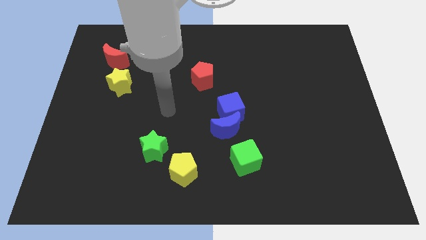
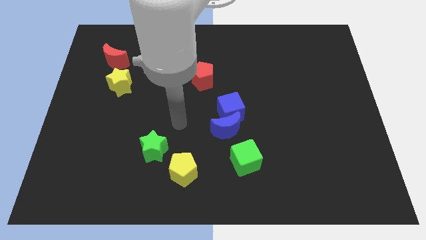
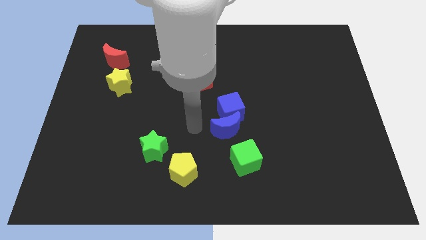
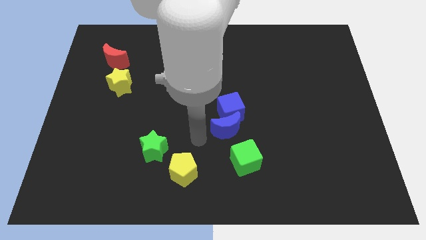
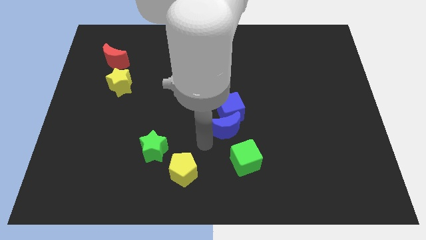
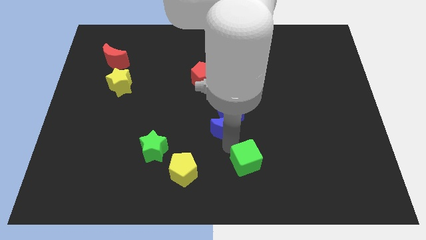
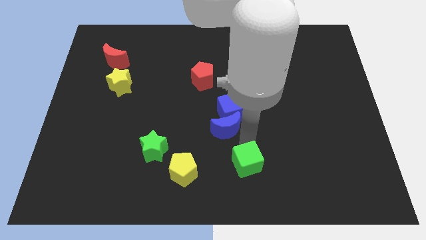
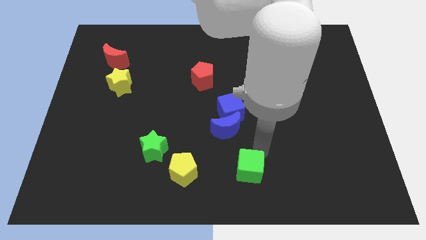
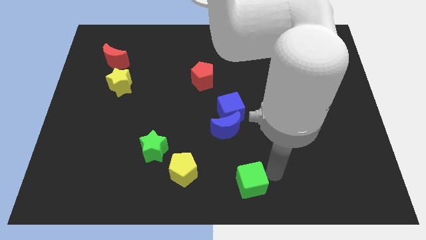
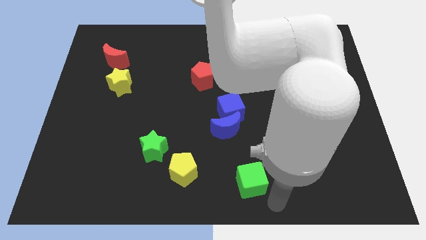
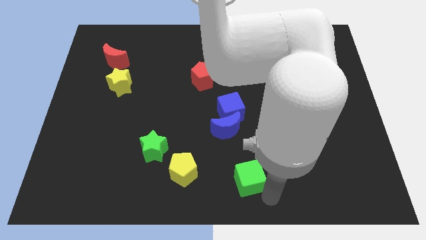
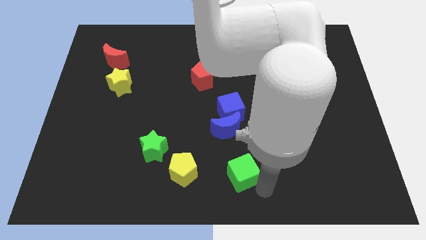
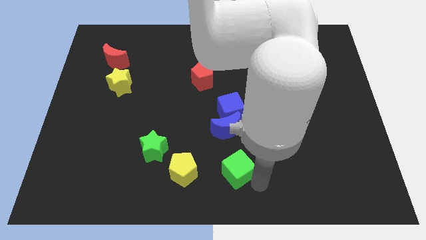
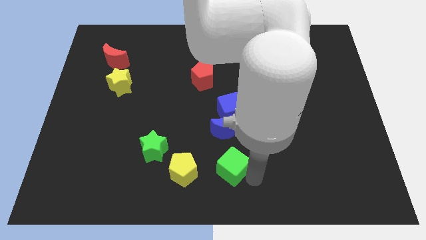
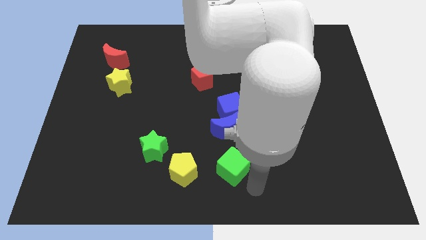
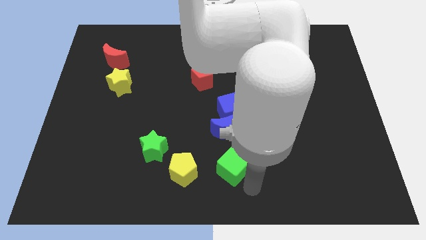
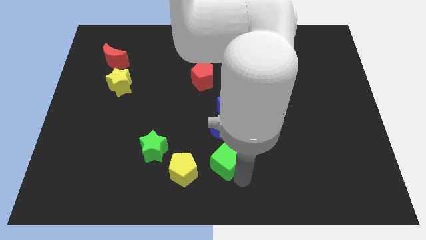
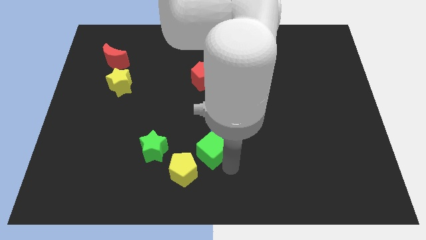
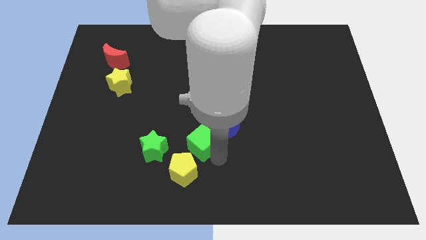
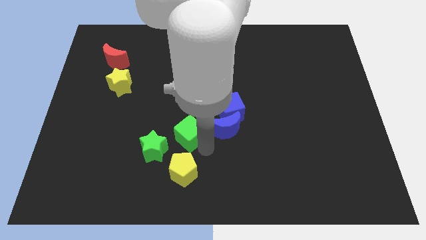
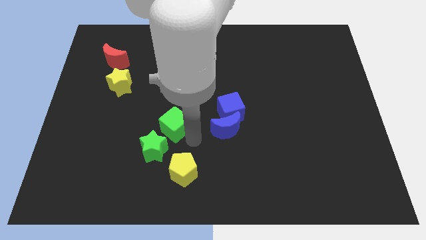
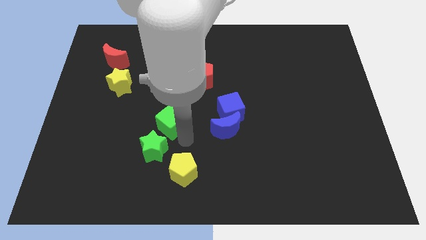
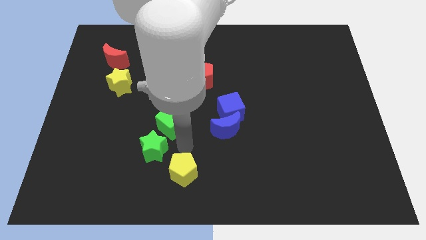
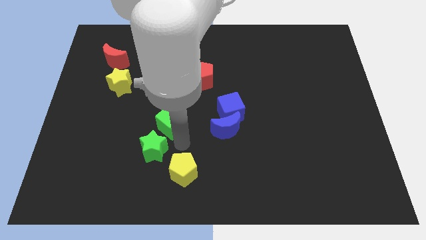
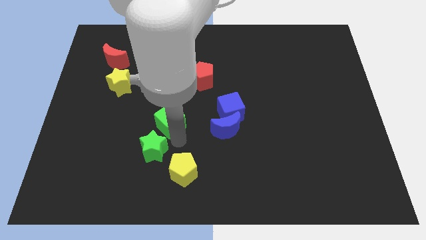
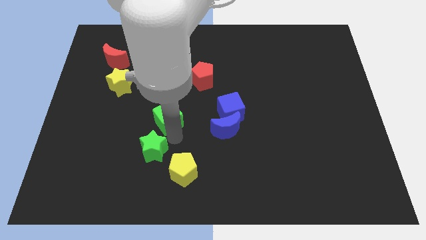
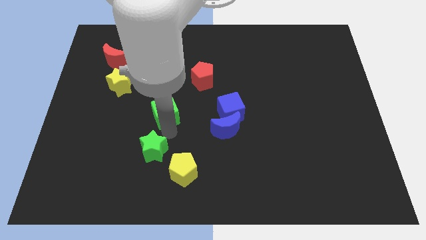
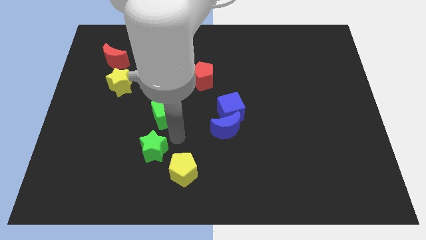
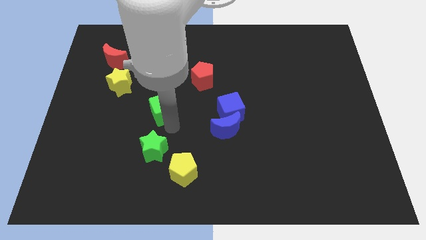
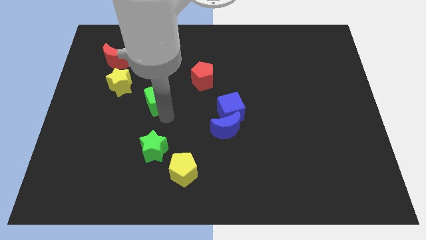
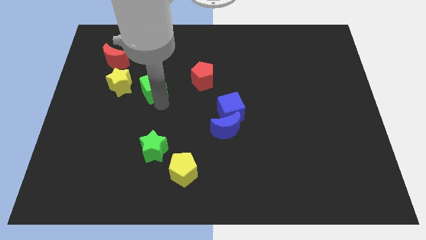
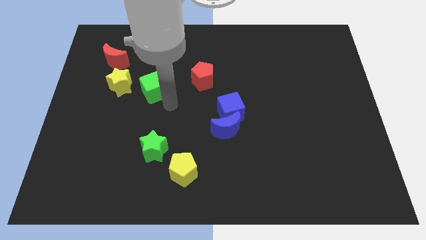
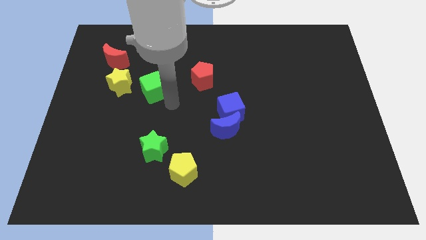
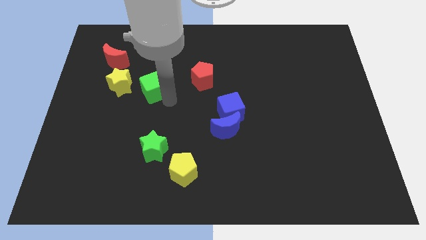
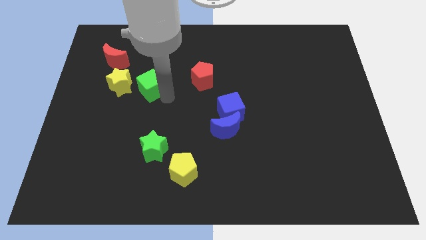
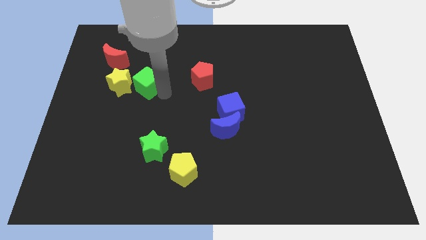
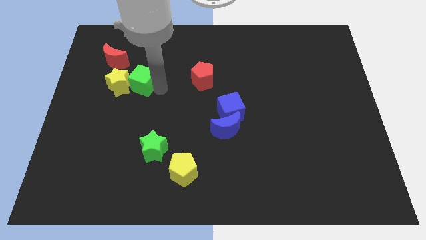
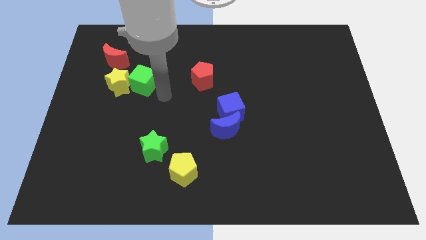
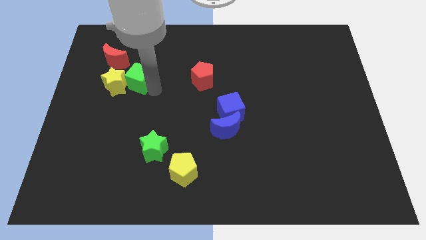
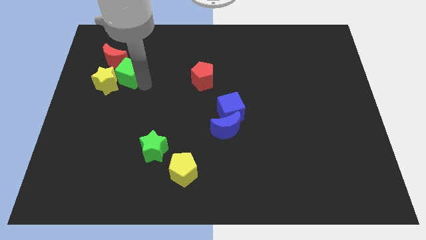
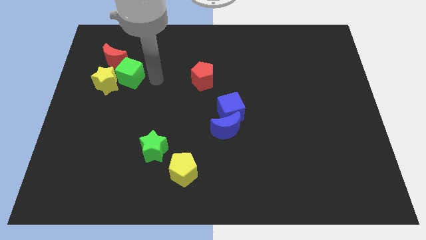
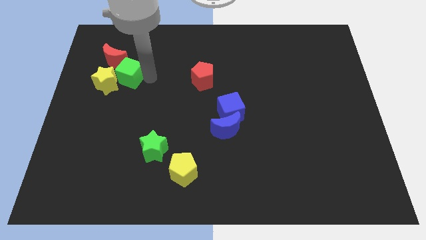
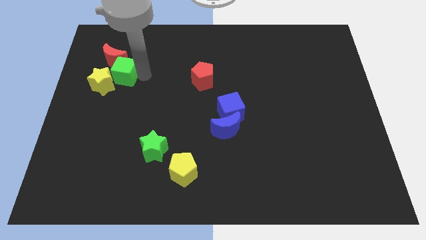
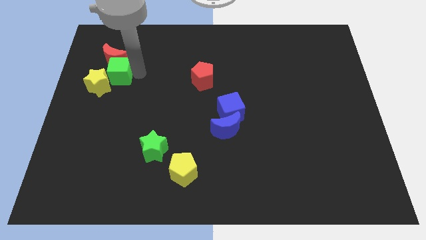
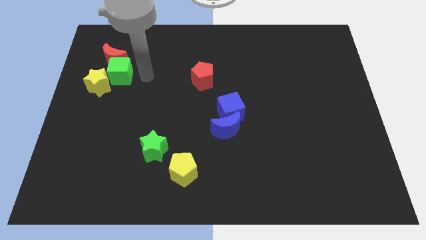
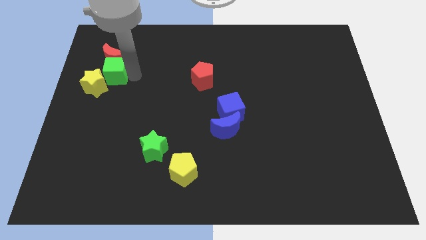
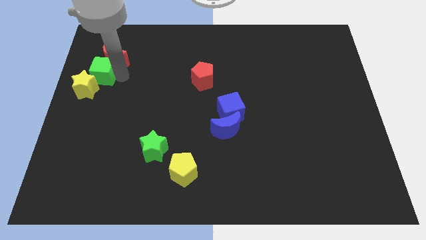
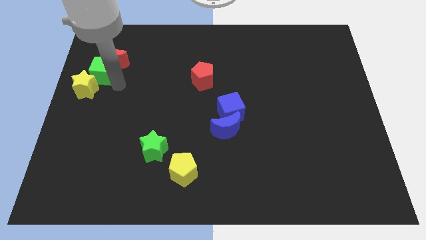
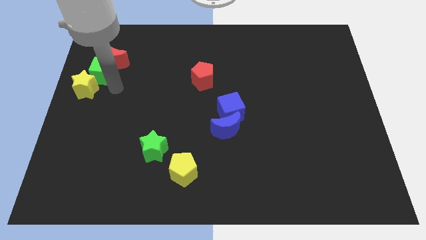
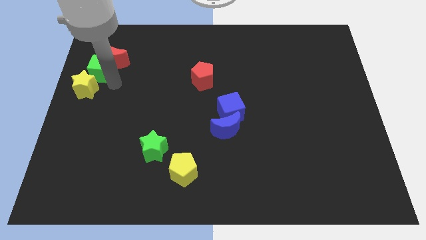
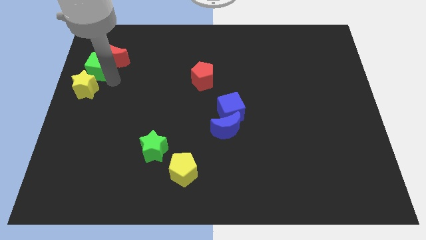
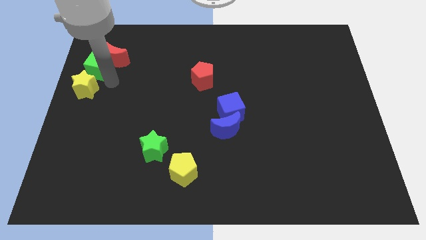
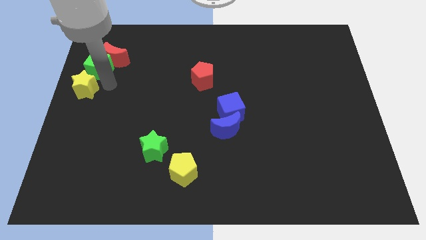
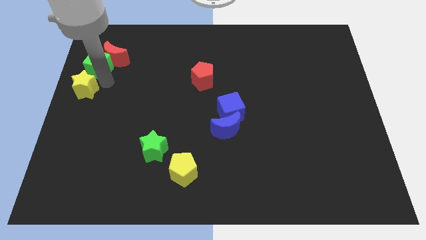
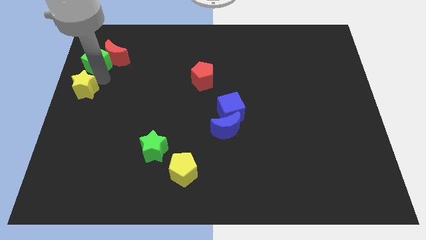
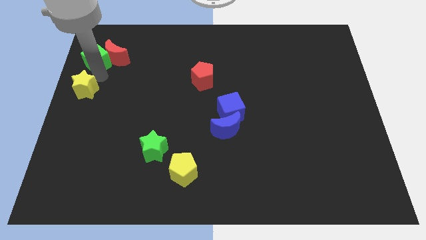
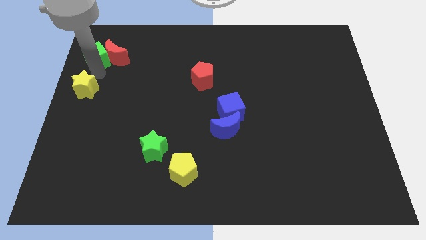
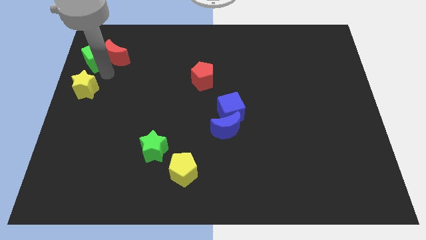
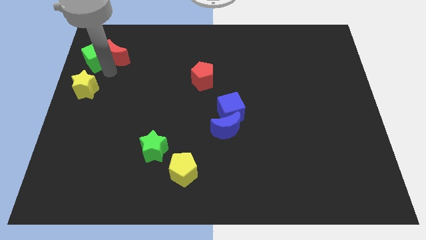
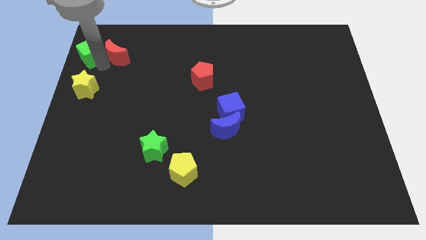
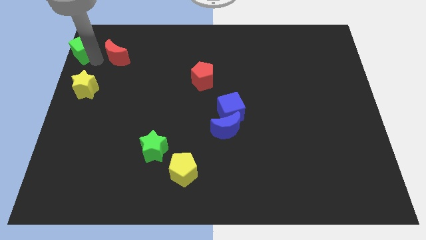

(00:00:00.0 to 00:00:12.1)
slide the green cube to the upper left corner
